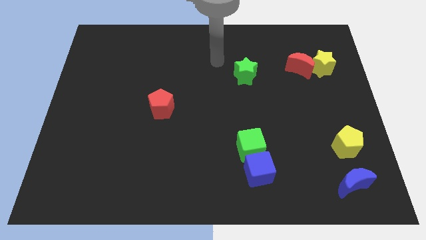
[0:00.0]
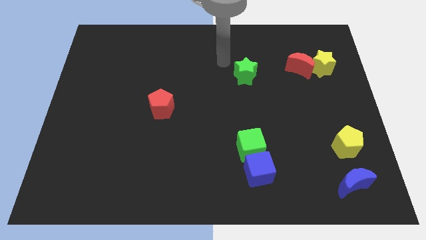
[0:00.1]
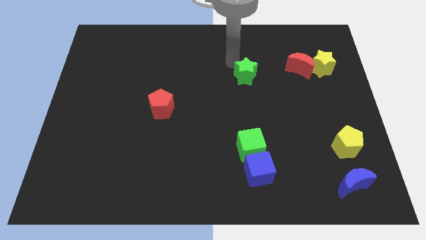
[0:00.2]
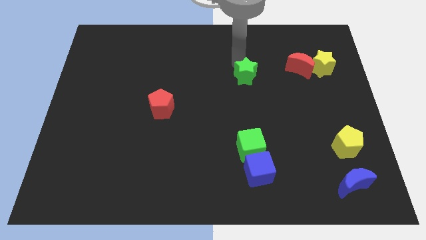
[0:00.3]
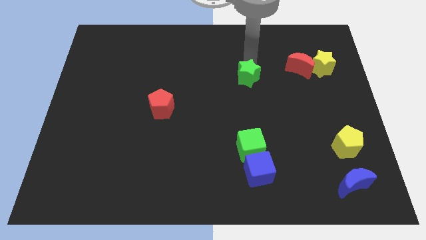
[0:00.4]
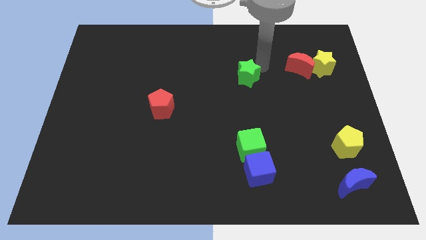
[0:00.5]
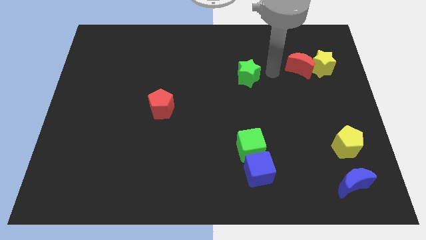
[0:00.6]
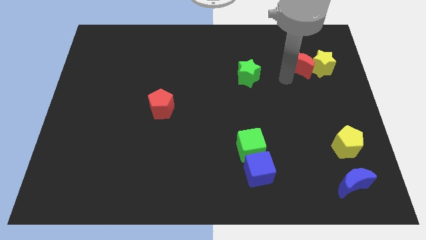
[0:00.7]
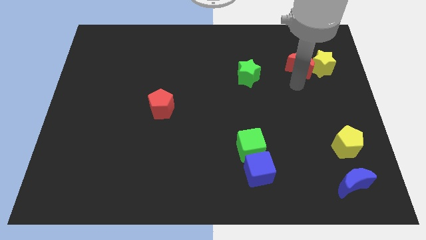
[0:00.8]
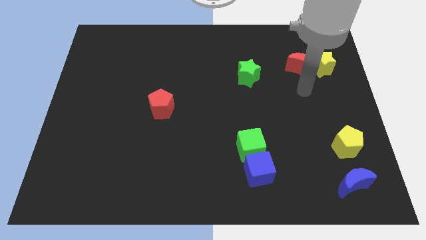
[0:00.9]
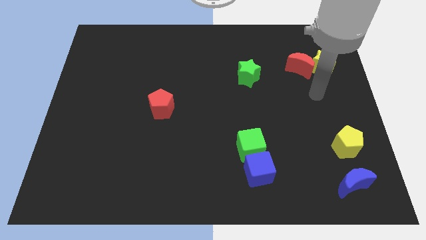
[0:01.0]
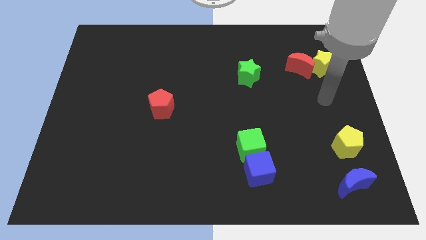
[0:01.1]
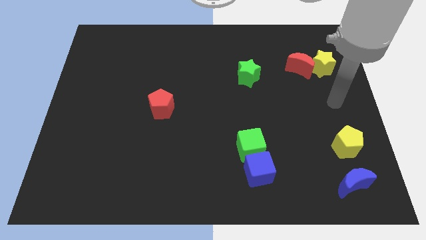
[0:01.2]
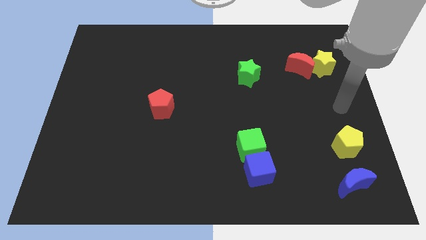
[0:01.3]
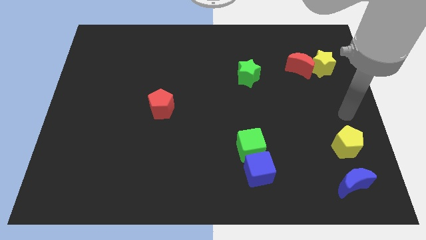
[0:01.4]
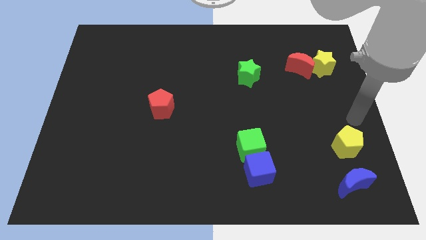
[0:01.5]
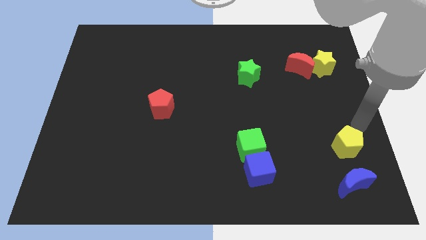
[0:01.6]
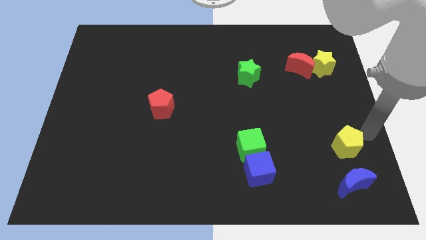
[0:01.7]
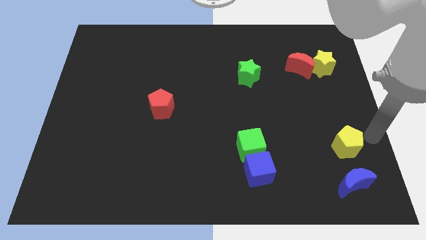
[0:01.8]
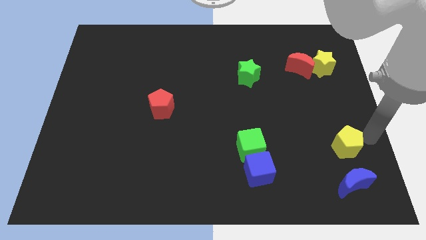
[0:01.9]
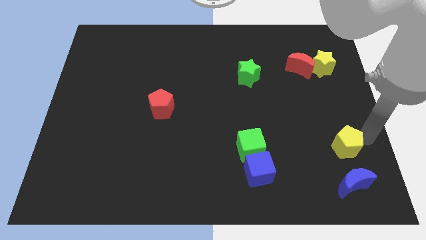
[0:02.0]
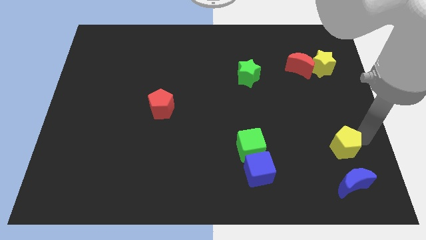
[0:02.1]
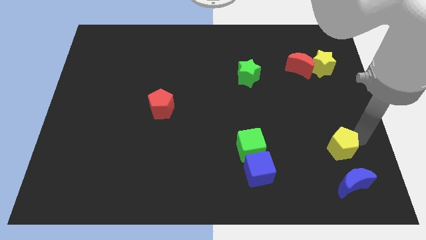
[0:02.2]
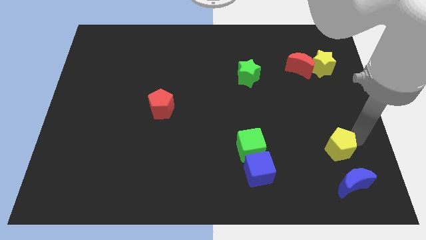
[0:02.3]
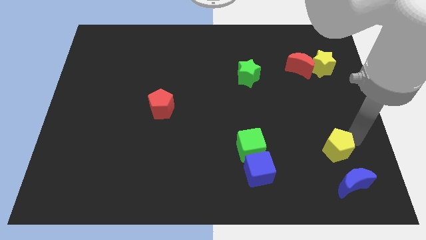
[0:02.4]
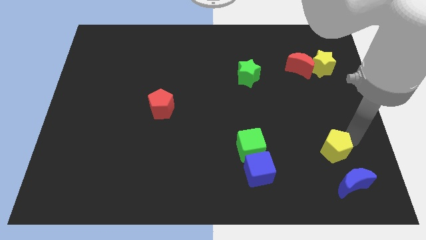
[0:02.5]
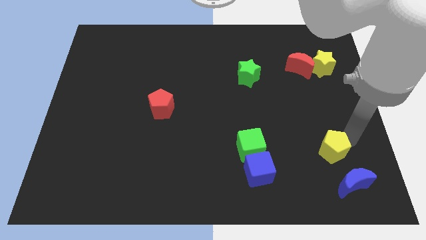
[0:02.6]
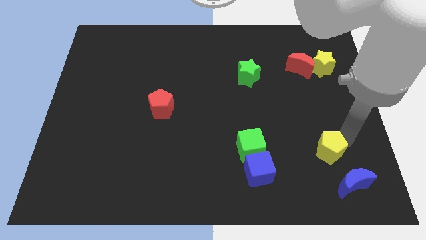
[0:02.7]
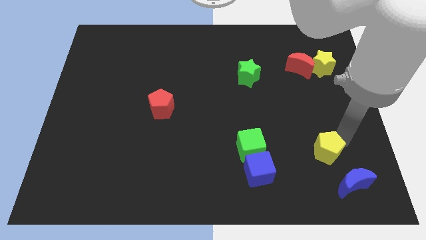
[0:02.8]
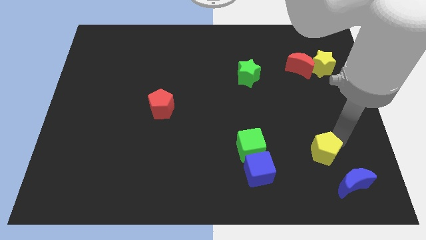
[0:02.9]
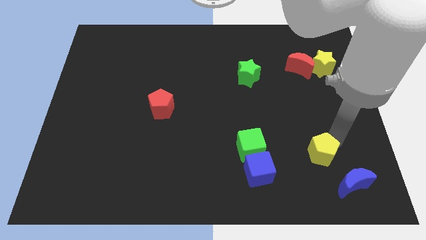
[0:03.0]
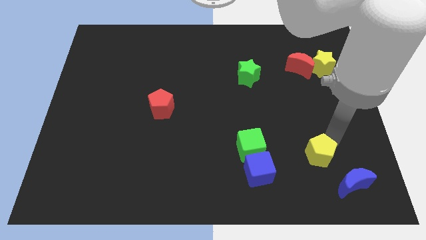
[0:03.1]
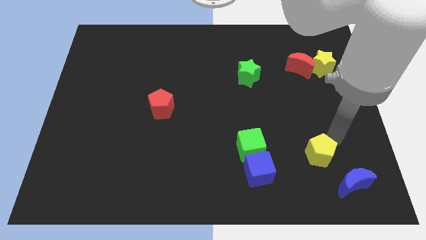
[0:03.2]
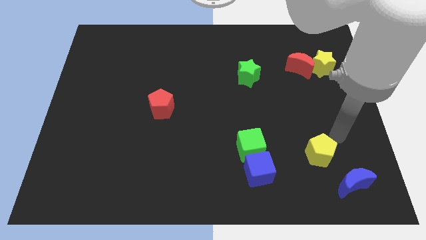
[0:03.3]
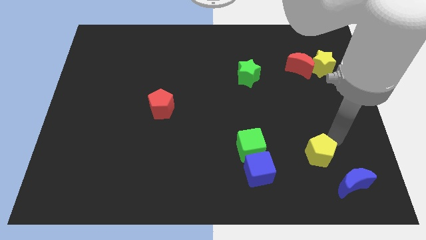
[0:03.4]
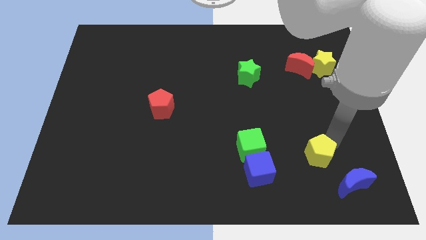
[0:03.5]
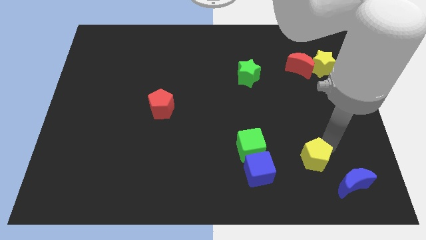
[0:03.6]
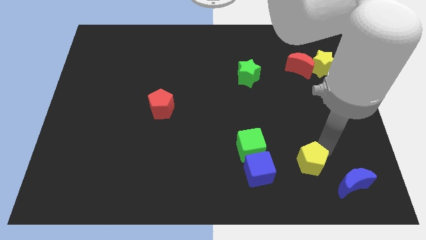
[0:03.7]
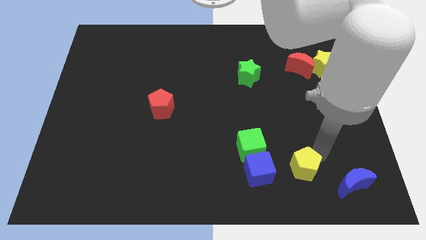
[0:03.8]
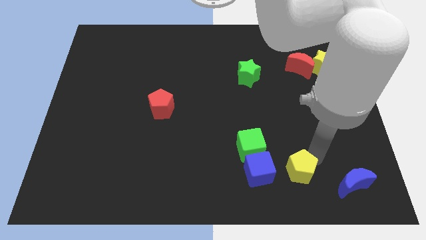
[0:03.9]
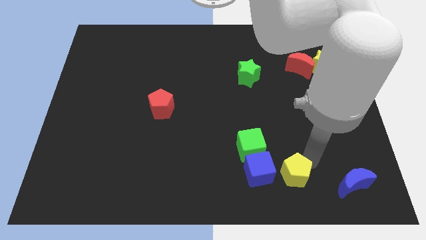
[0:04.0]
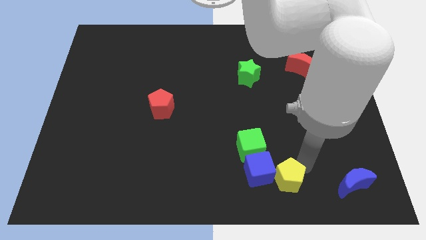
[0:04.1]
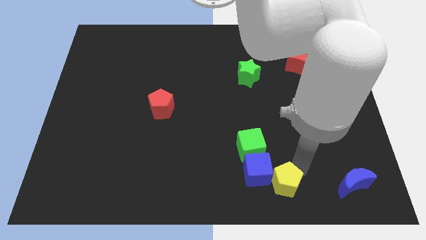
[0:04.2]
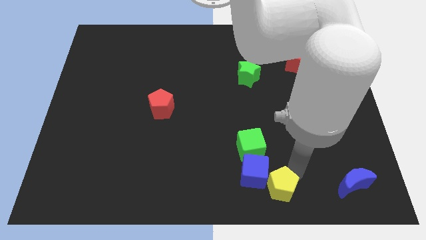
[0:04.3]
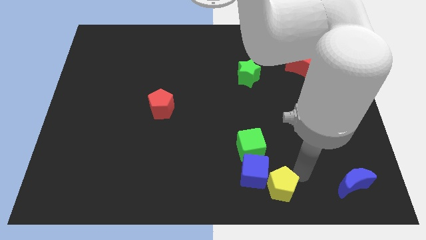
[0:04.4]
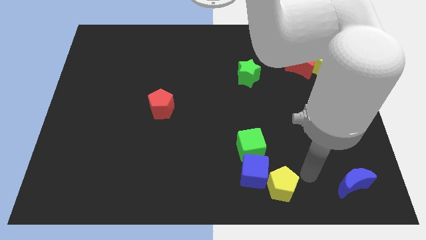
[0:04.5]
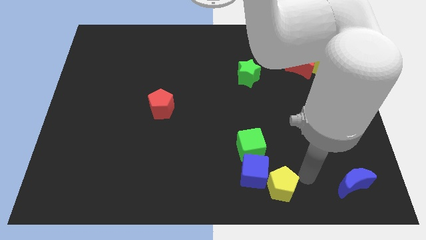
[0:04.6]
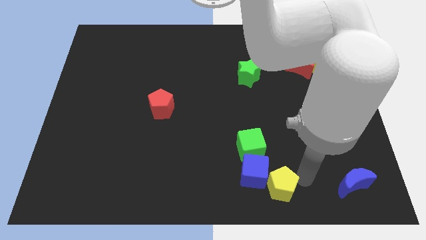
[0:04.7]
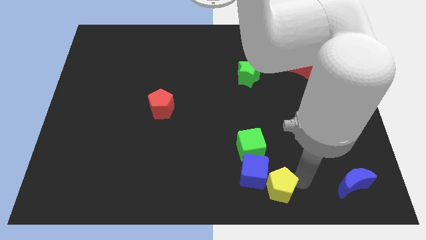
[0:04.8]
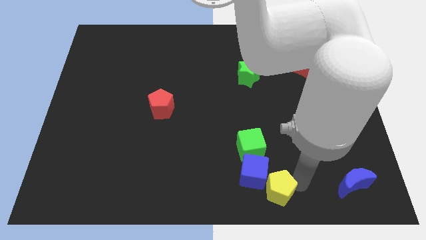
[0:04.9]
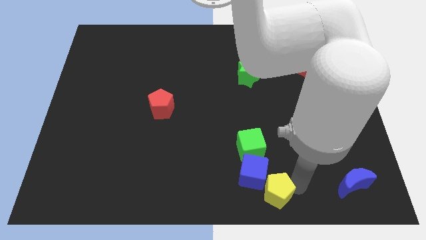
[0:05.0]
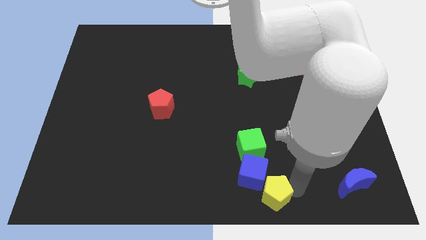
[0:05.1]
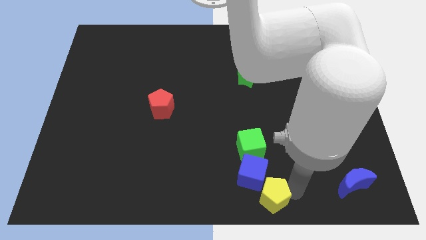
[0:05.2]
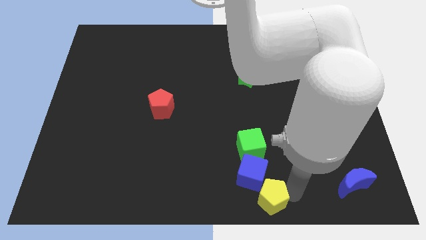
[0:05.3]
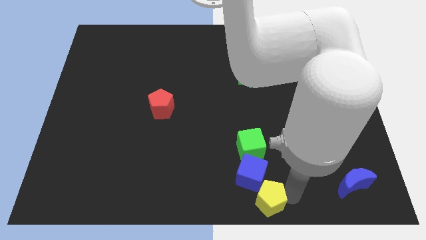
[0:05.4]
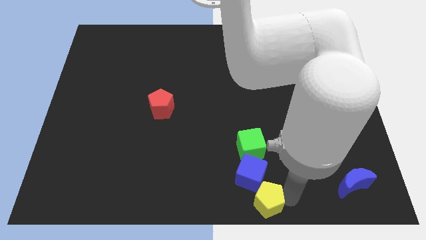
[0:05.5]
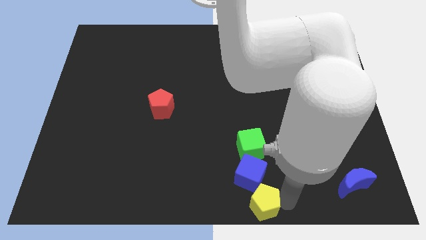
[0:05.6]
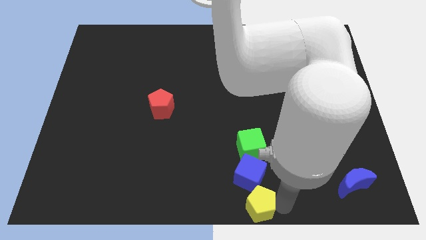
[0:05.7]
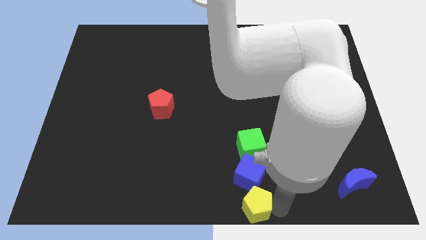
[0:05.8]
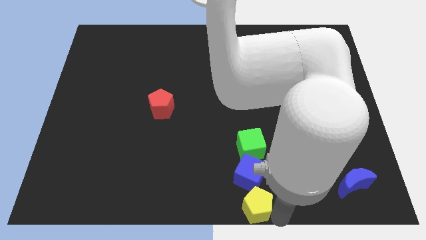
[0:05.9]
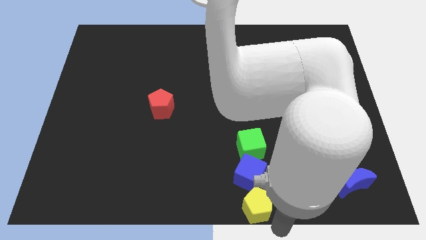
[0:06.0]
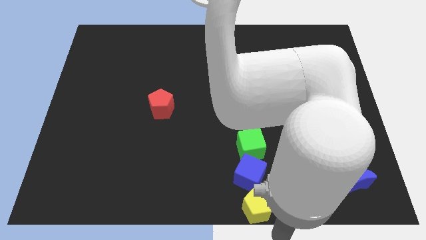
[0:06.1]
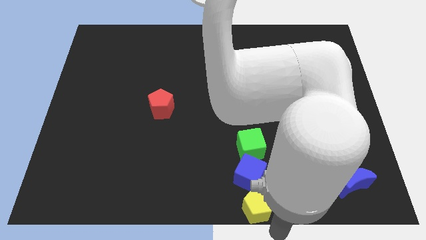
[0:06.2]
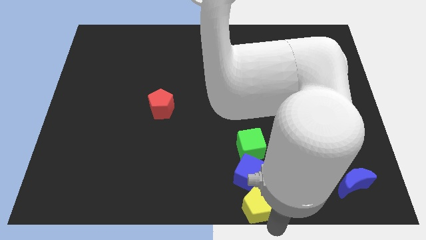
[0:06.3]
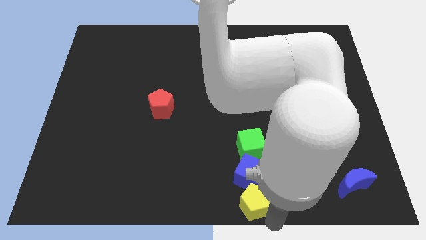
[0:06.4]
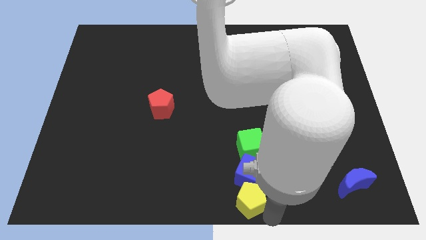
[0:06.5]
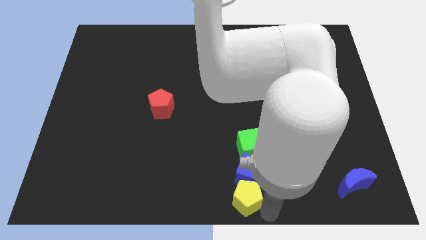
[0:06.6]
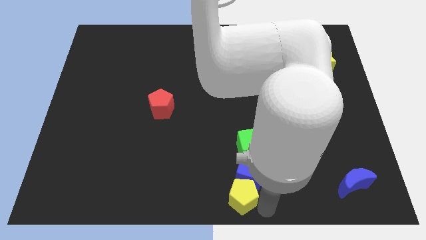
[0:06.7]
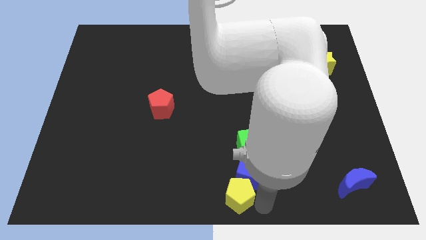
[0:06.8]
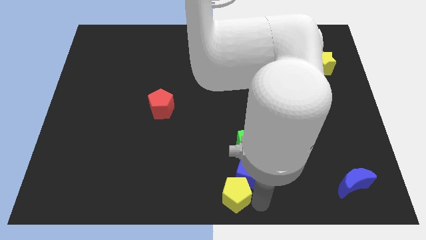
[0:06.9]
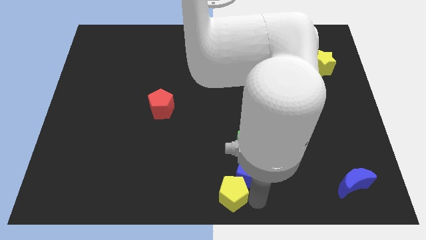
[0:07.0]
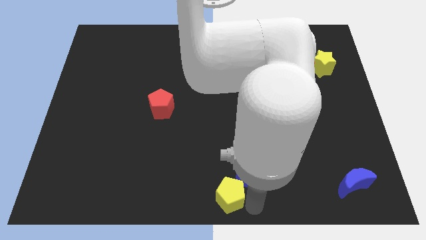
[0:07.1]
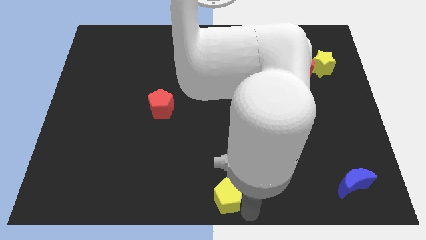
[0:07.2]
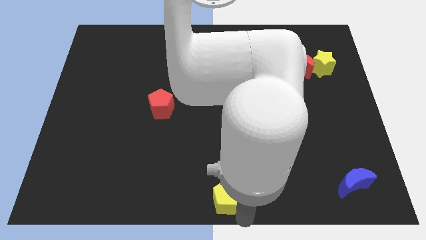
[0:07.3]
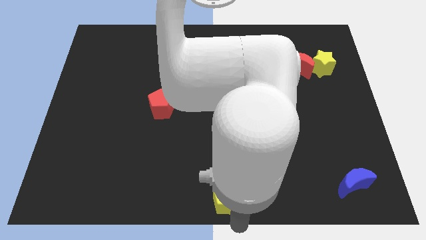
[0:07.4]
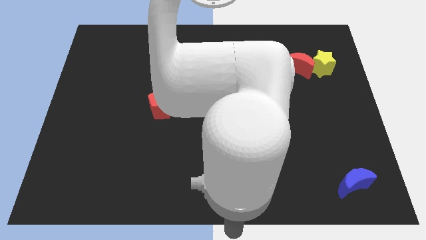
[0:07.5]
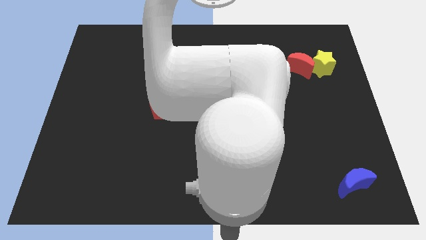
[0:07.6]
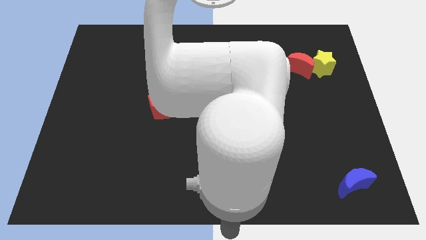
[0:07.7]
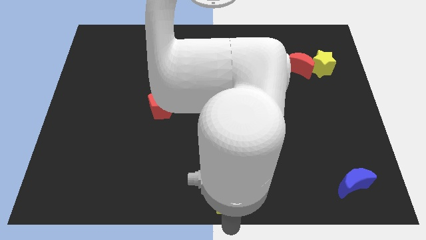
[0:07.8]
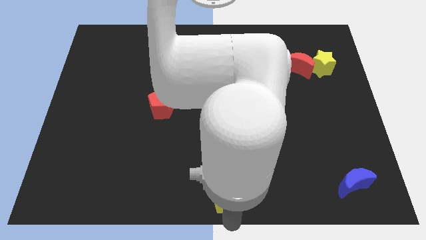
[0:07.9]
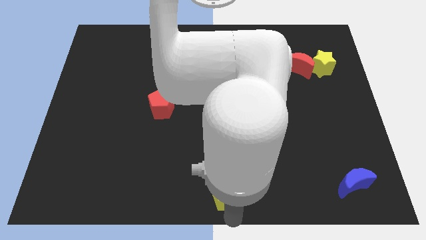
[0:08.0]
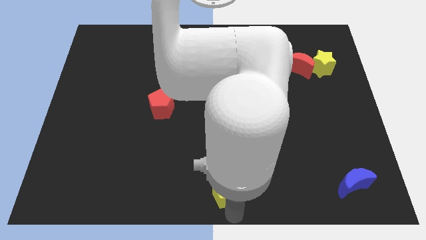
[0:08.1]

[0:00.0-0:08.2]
slide the yellow pentagon to the bottom left side of the green cube
